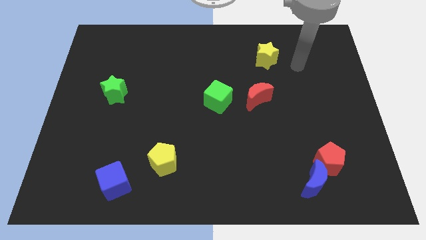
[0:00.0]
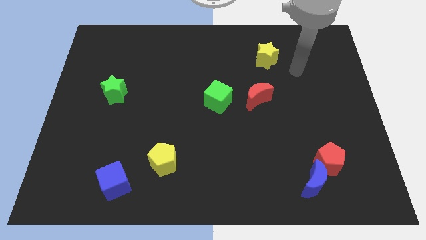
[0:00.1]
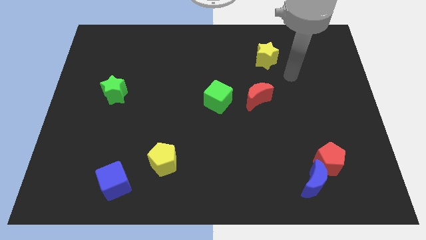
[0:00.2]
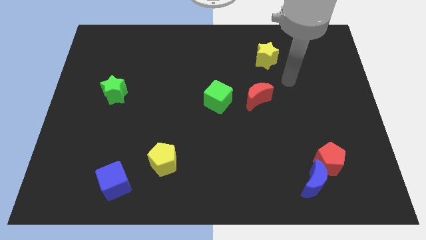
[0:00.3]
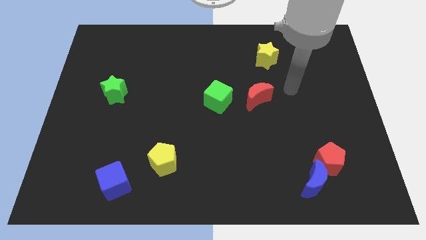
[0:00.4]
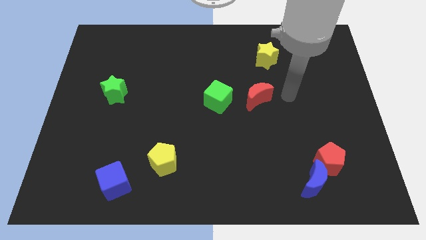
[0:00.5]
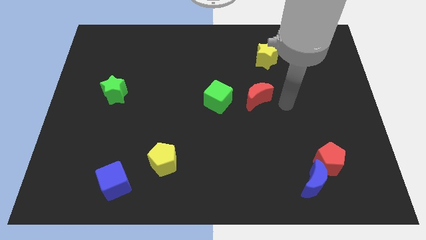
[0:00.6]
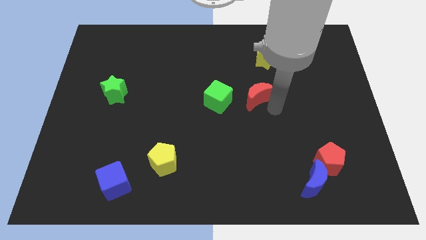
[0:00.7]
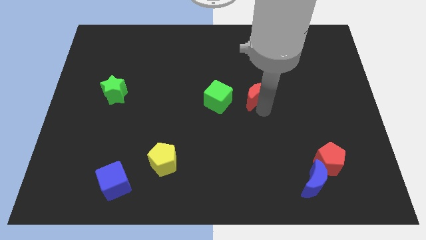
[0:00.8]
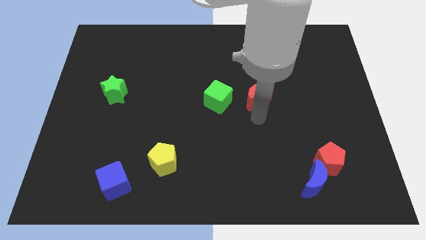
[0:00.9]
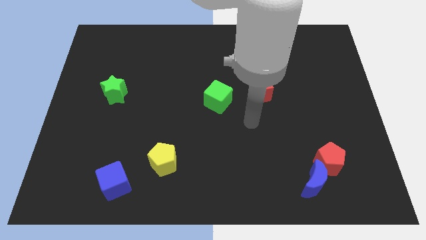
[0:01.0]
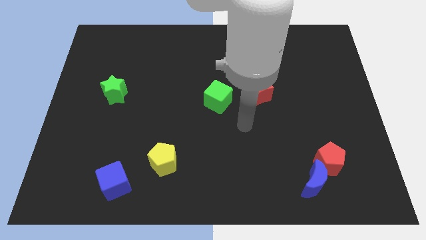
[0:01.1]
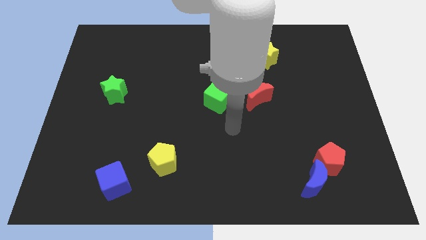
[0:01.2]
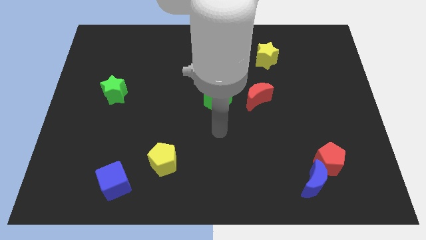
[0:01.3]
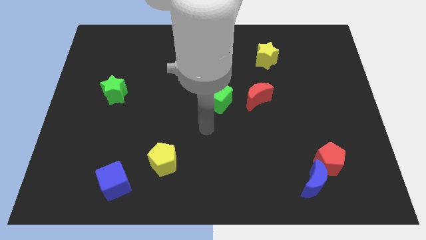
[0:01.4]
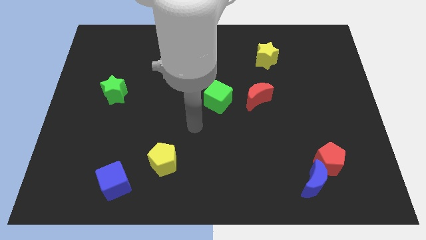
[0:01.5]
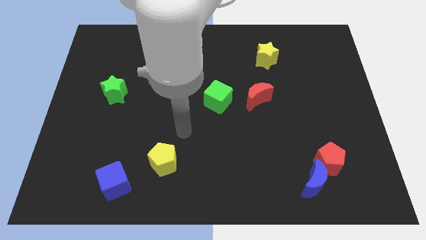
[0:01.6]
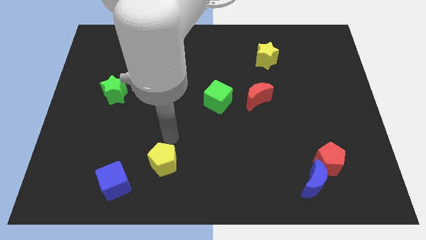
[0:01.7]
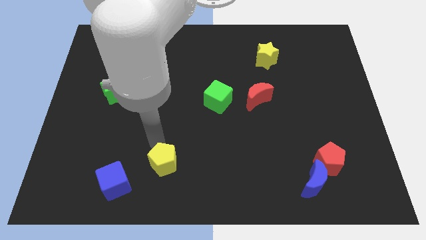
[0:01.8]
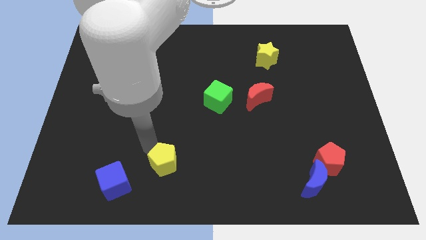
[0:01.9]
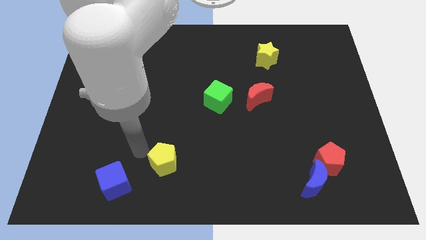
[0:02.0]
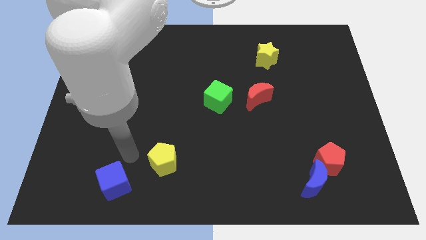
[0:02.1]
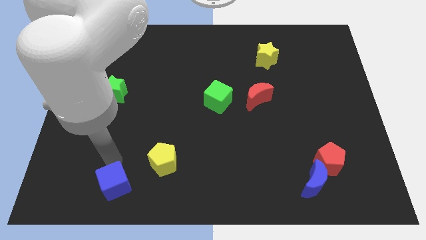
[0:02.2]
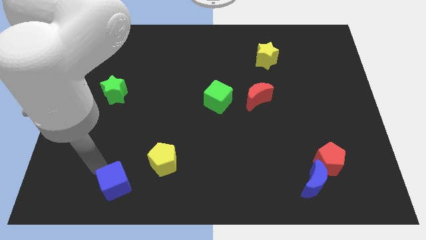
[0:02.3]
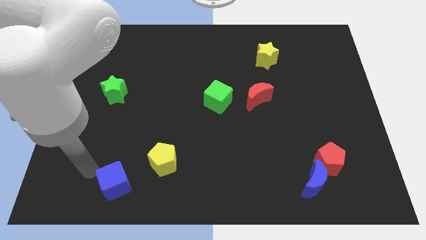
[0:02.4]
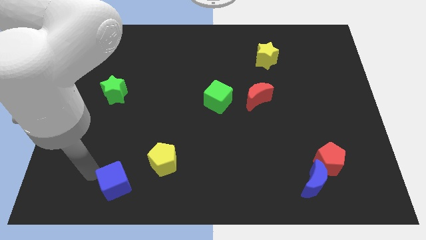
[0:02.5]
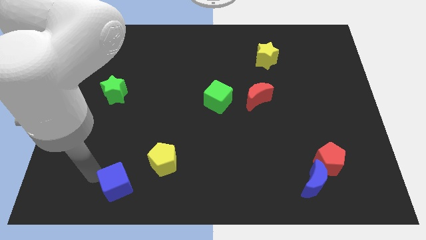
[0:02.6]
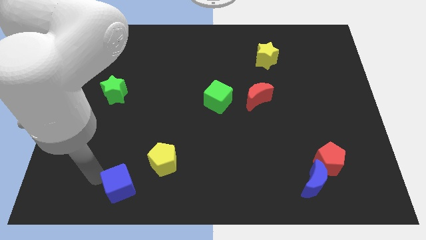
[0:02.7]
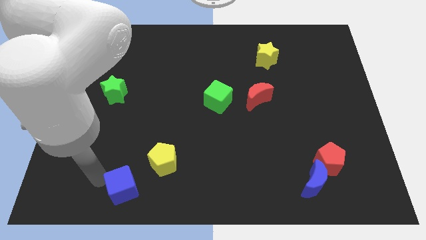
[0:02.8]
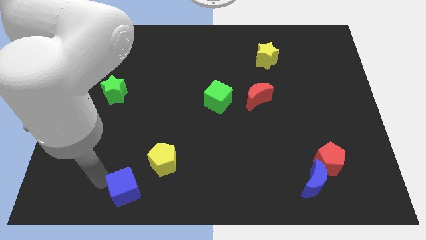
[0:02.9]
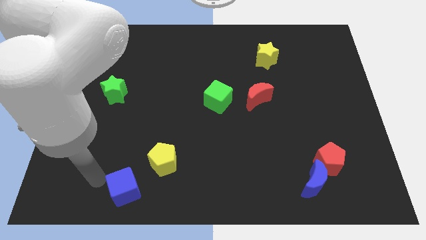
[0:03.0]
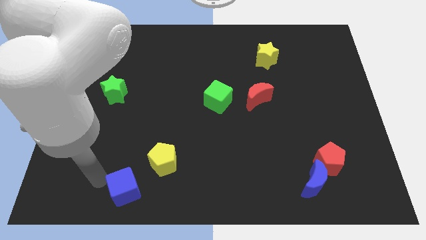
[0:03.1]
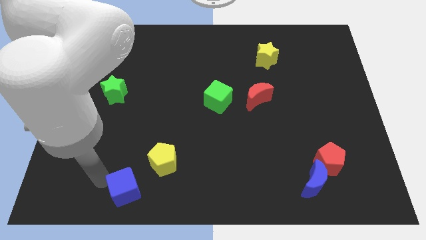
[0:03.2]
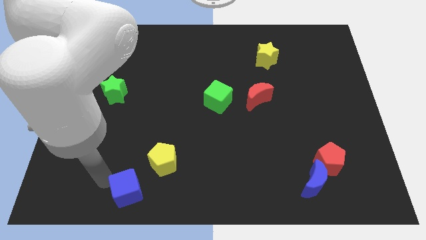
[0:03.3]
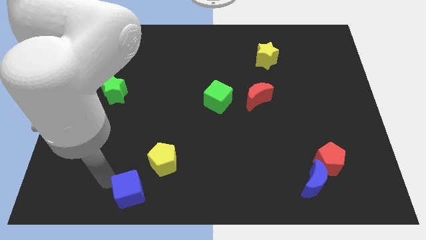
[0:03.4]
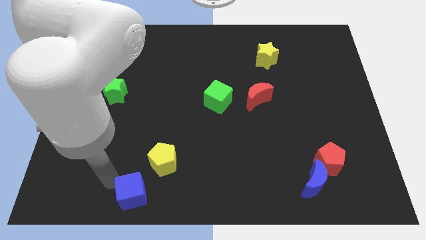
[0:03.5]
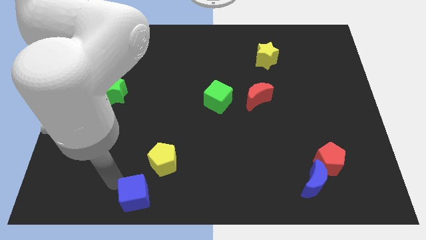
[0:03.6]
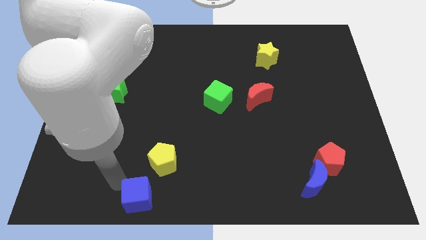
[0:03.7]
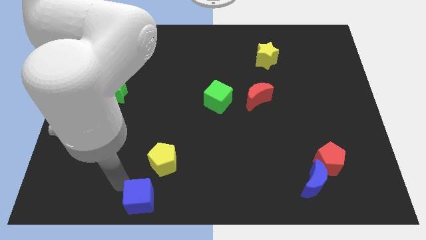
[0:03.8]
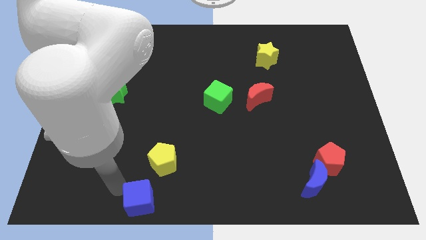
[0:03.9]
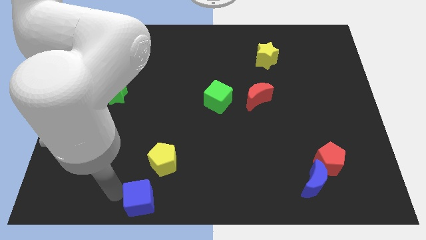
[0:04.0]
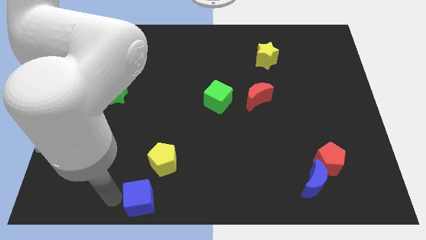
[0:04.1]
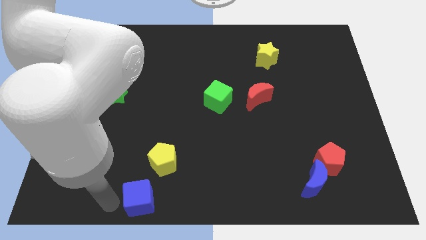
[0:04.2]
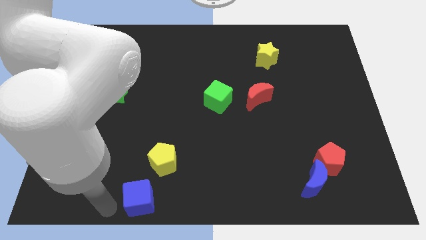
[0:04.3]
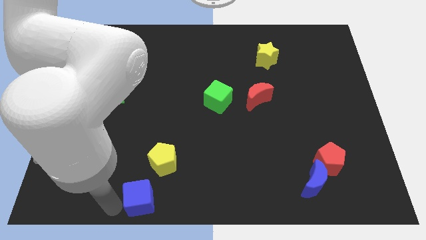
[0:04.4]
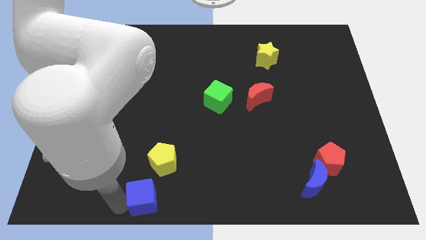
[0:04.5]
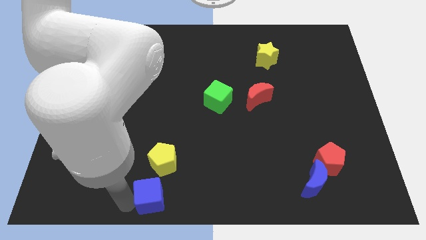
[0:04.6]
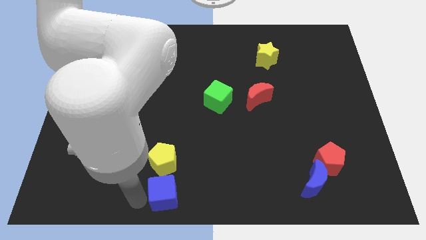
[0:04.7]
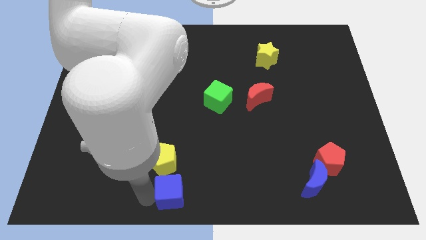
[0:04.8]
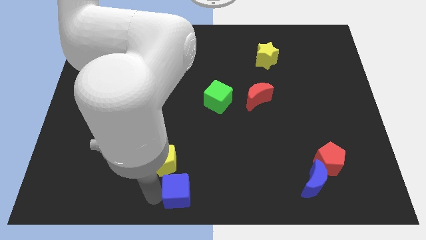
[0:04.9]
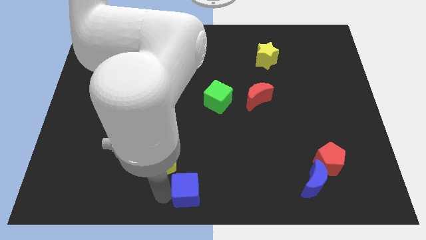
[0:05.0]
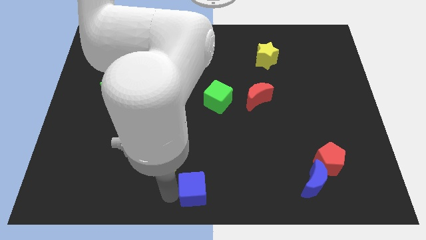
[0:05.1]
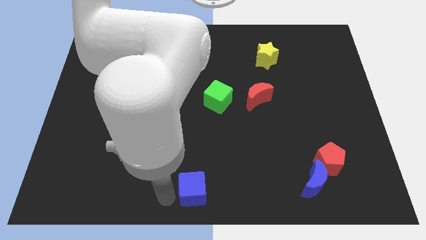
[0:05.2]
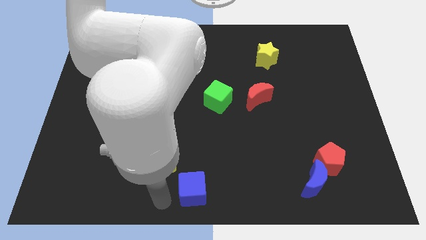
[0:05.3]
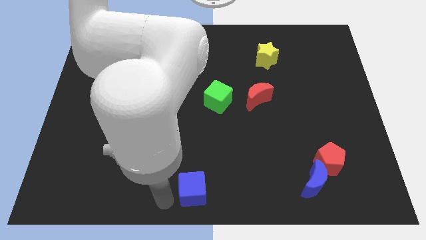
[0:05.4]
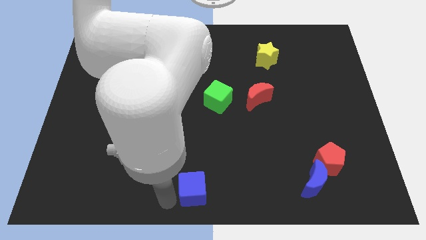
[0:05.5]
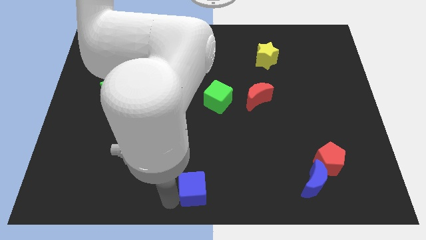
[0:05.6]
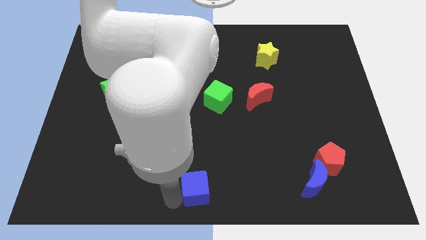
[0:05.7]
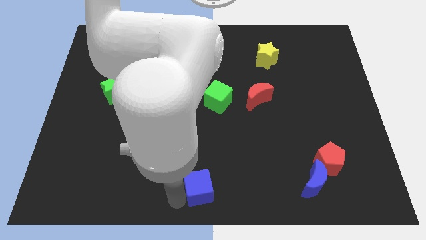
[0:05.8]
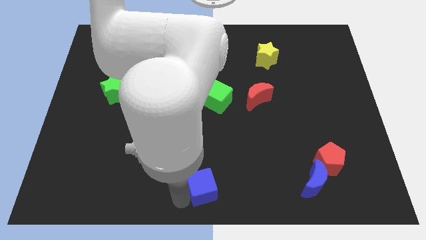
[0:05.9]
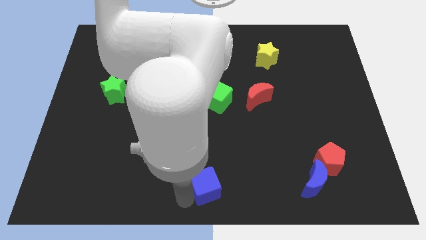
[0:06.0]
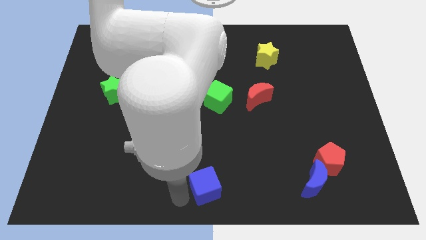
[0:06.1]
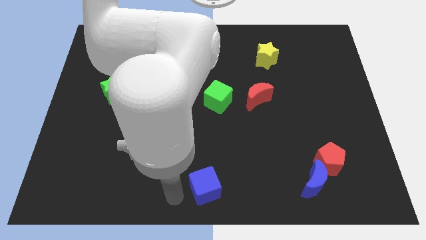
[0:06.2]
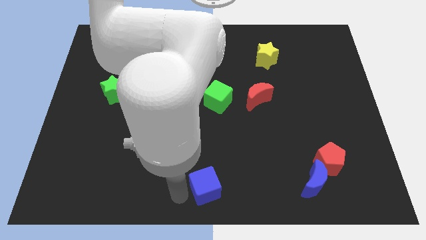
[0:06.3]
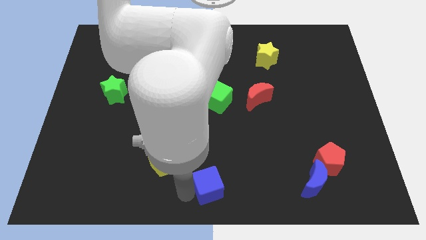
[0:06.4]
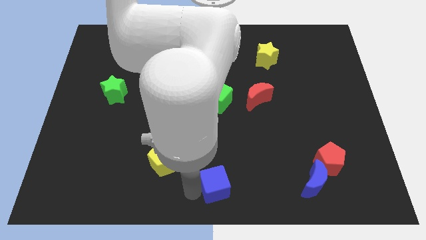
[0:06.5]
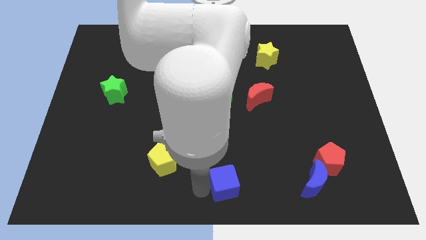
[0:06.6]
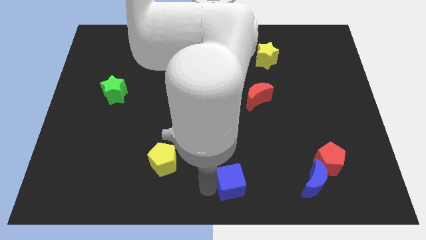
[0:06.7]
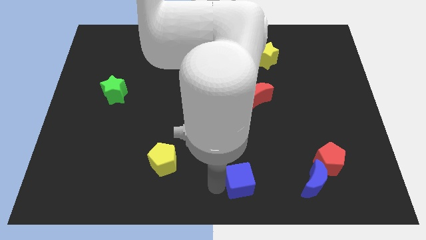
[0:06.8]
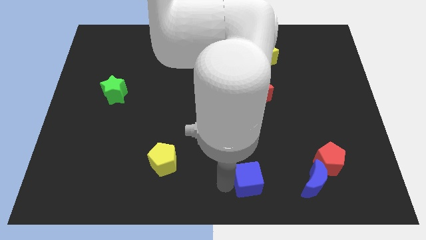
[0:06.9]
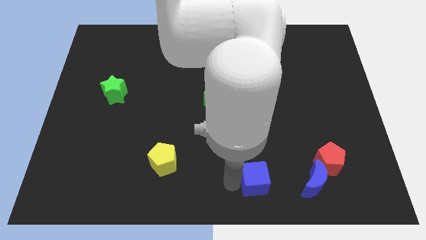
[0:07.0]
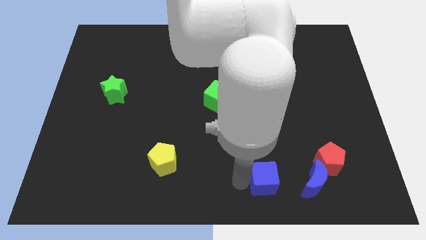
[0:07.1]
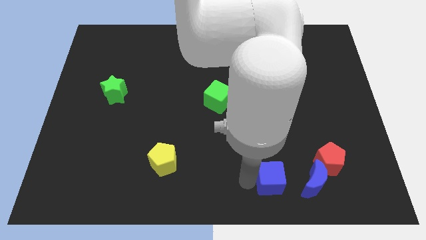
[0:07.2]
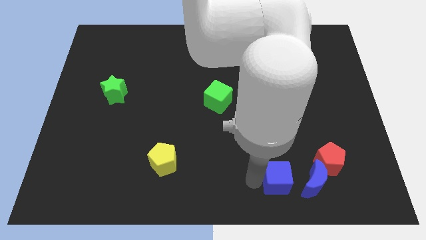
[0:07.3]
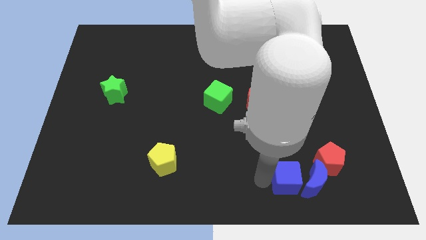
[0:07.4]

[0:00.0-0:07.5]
slide the blue cube to the blue moon

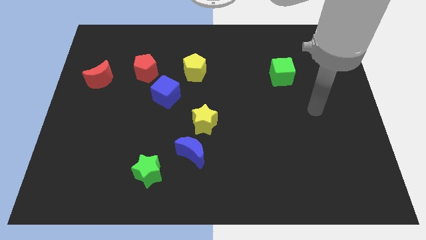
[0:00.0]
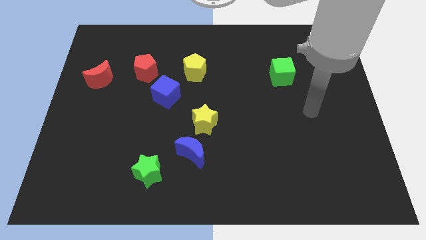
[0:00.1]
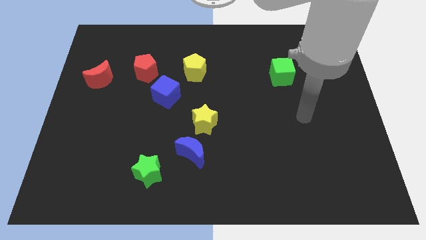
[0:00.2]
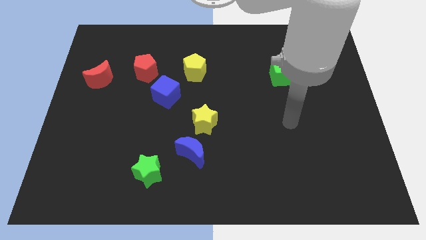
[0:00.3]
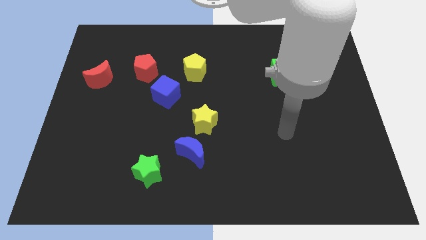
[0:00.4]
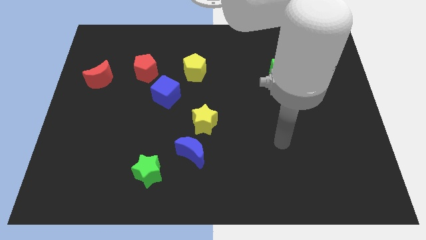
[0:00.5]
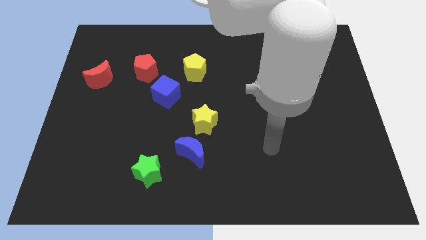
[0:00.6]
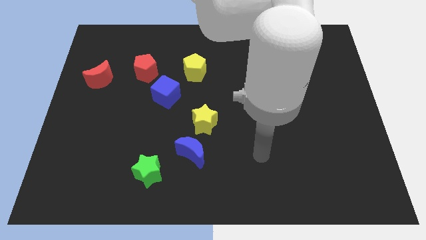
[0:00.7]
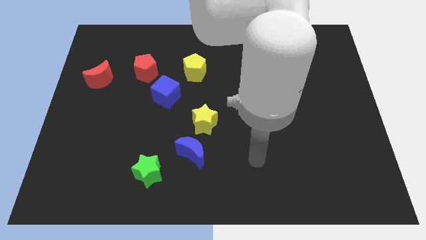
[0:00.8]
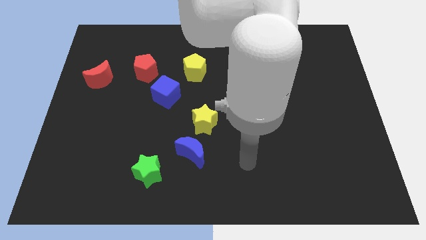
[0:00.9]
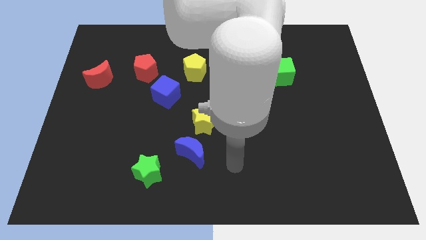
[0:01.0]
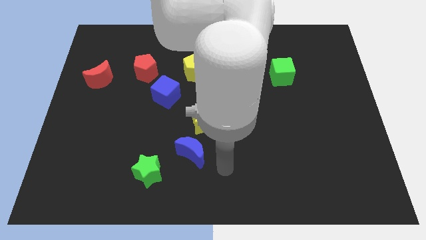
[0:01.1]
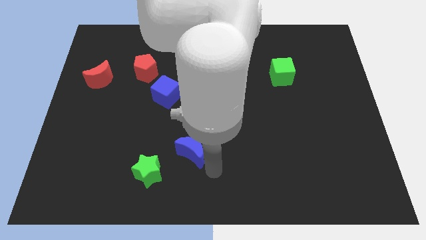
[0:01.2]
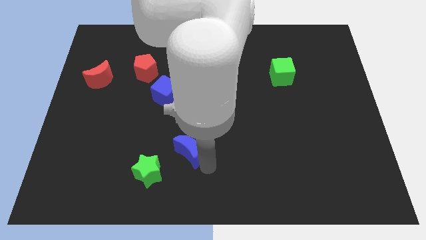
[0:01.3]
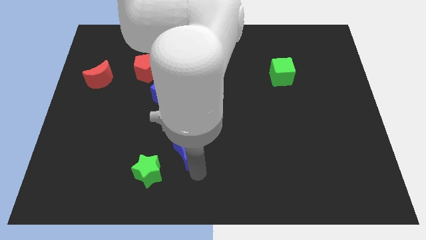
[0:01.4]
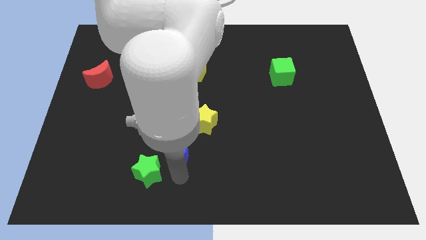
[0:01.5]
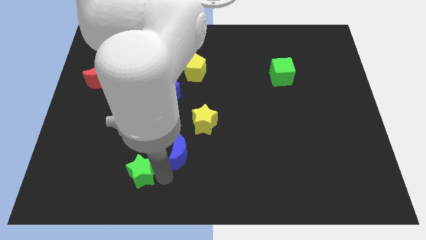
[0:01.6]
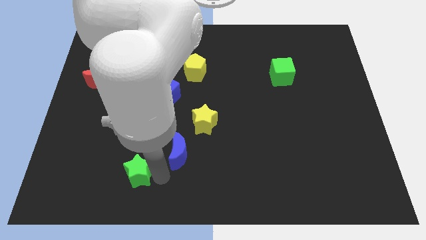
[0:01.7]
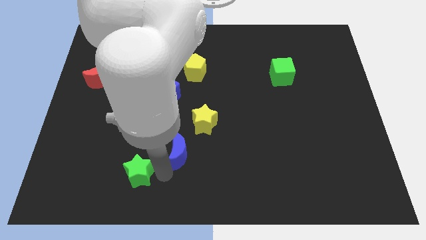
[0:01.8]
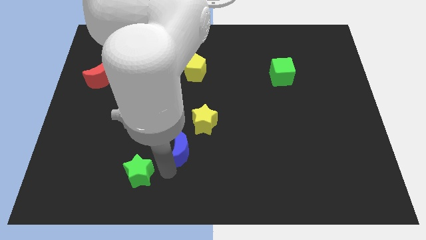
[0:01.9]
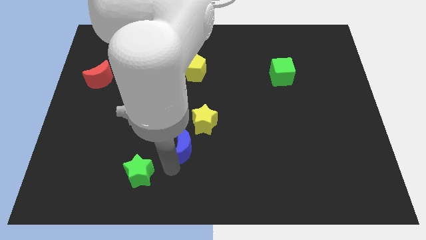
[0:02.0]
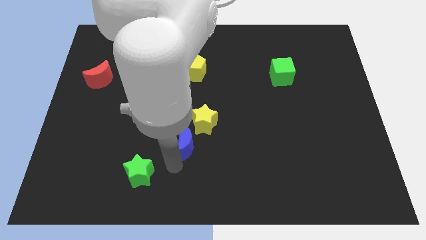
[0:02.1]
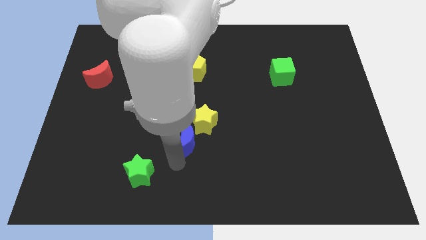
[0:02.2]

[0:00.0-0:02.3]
put the blue moon close to the yellow star
